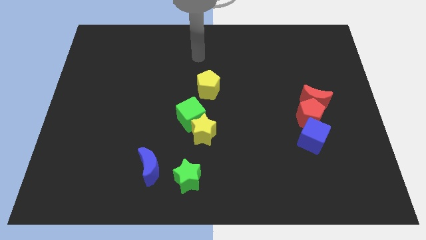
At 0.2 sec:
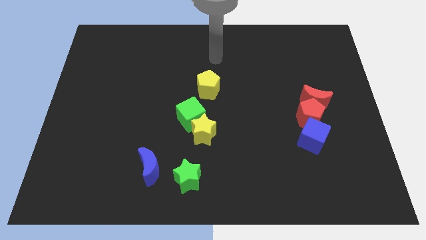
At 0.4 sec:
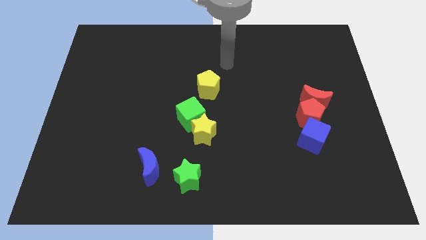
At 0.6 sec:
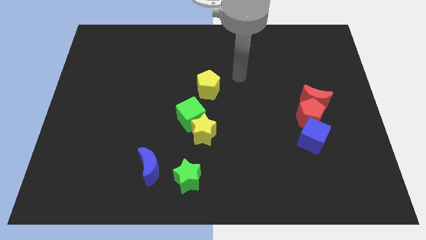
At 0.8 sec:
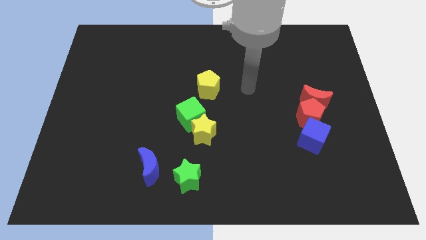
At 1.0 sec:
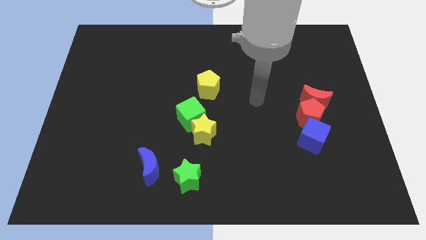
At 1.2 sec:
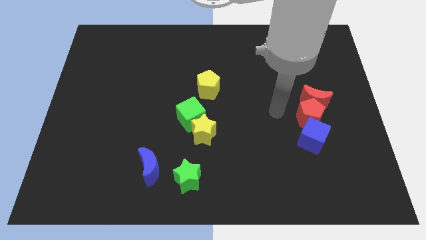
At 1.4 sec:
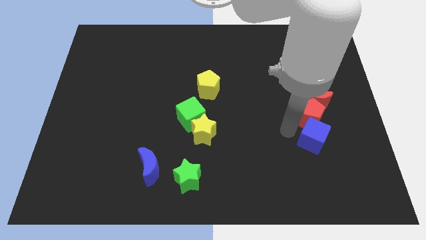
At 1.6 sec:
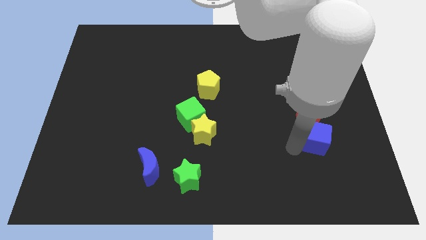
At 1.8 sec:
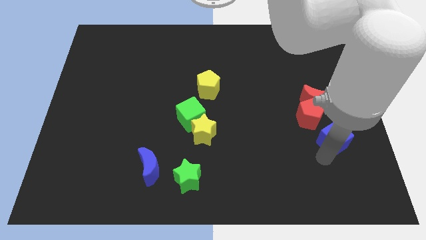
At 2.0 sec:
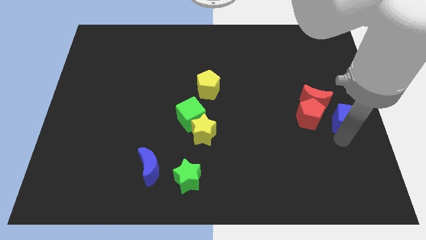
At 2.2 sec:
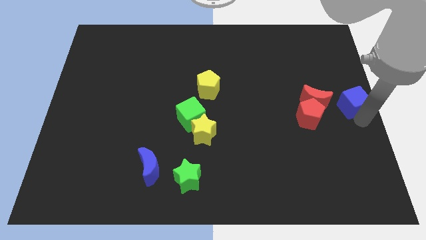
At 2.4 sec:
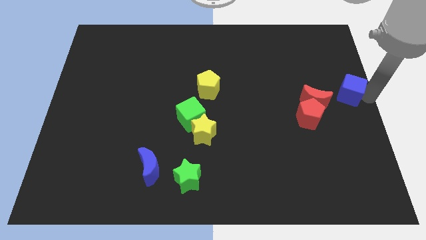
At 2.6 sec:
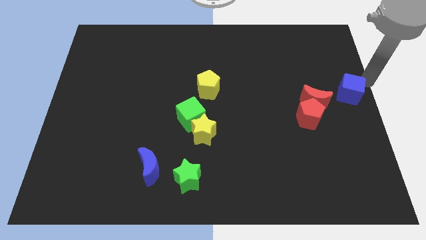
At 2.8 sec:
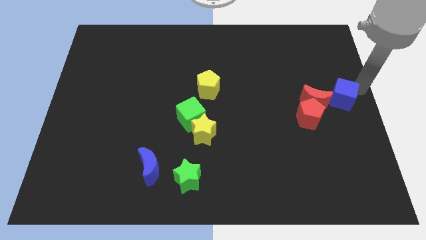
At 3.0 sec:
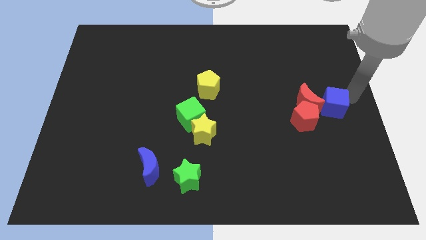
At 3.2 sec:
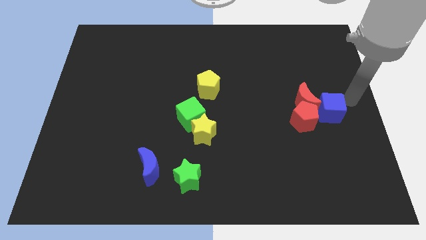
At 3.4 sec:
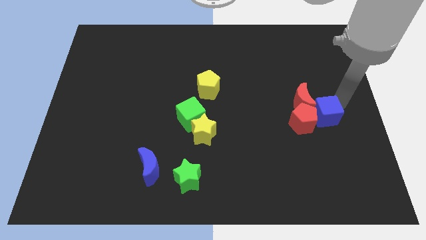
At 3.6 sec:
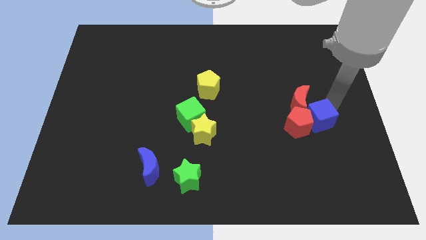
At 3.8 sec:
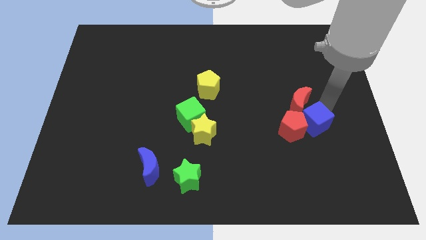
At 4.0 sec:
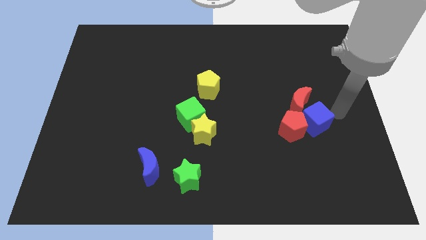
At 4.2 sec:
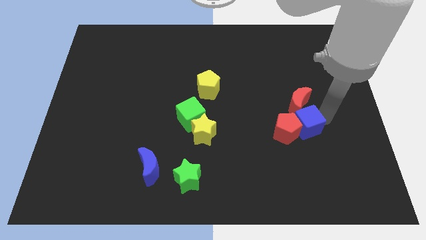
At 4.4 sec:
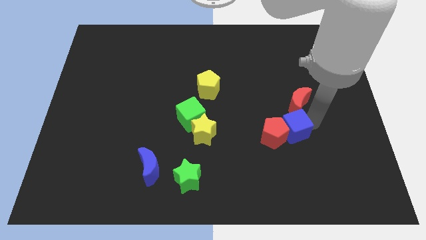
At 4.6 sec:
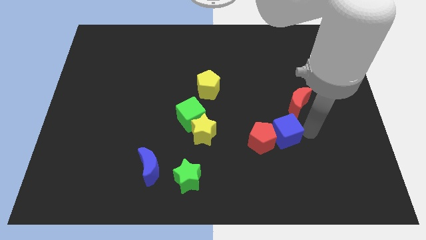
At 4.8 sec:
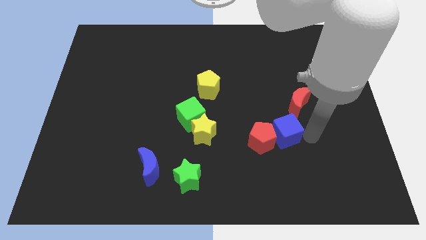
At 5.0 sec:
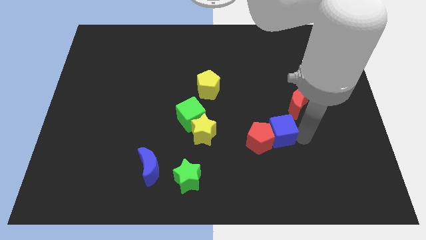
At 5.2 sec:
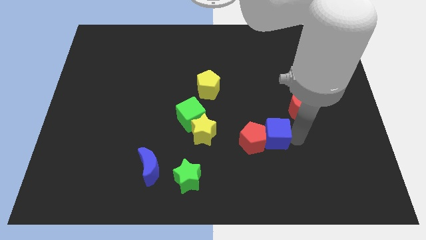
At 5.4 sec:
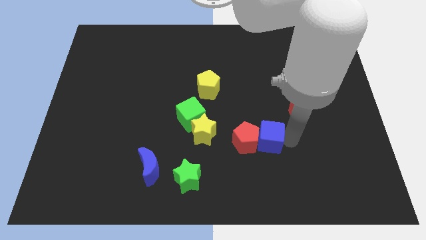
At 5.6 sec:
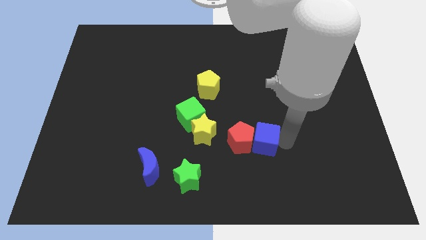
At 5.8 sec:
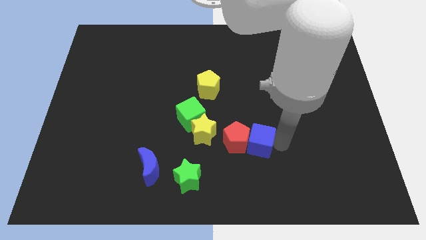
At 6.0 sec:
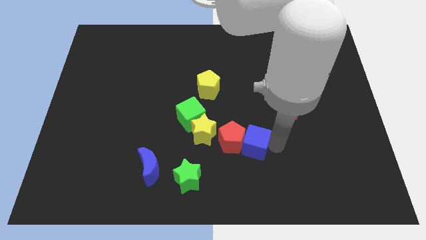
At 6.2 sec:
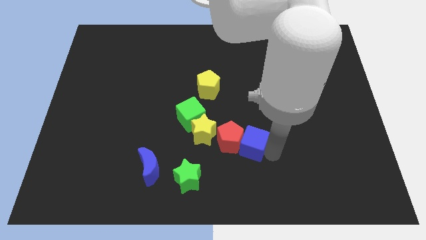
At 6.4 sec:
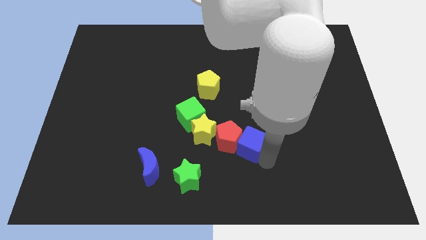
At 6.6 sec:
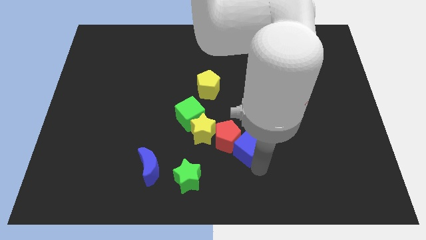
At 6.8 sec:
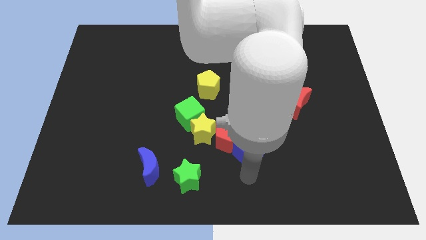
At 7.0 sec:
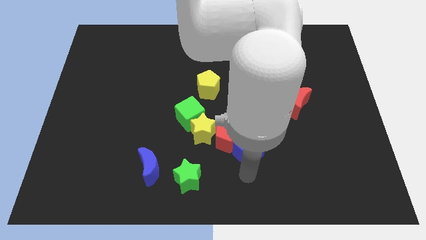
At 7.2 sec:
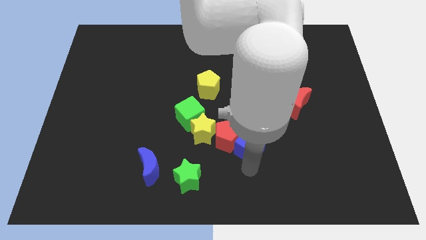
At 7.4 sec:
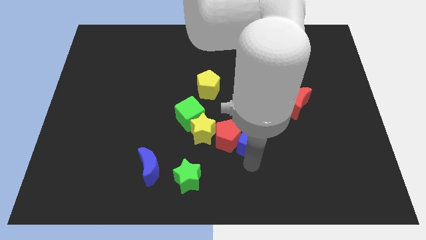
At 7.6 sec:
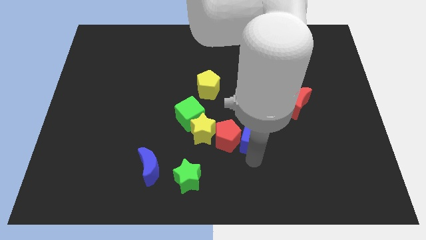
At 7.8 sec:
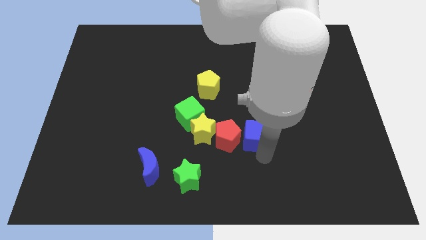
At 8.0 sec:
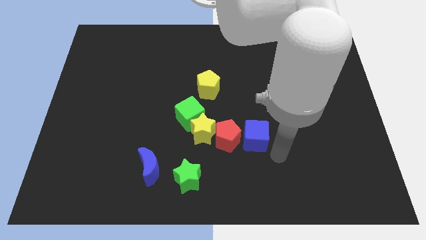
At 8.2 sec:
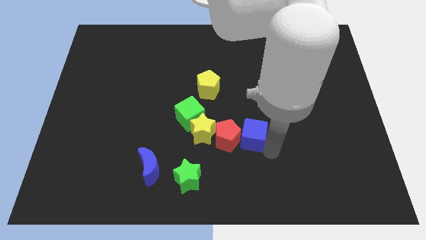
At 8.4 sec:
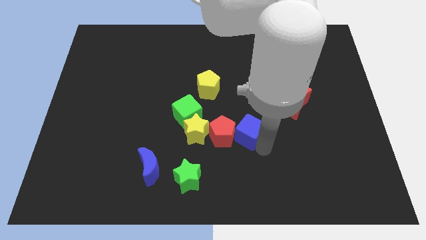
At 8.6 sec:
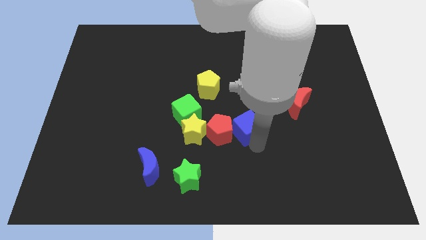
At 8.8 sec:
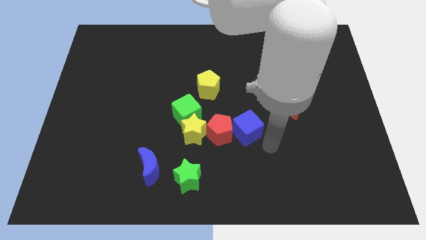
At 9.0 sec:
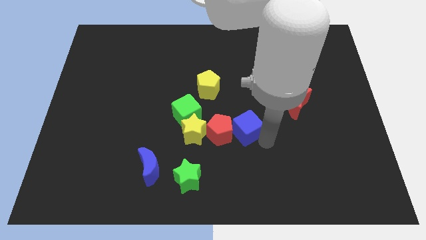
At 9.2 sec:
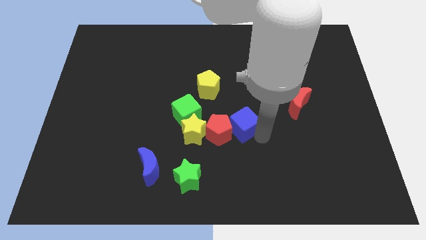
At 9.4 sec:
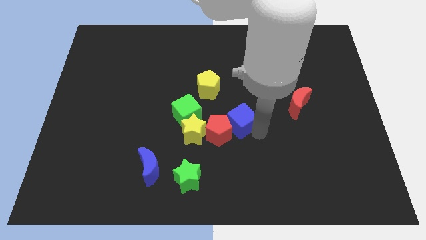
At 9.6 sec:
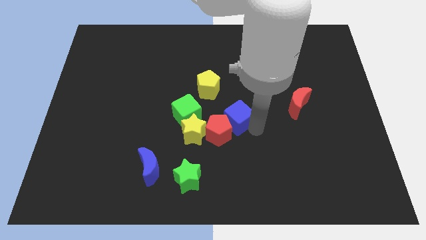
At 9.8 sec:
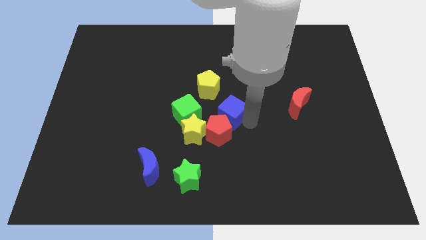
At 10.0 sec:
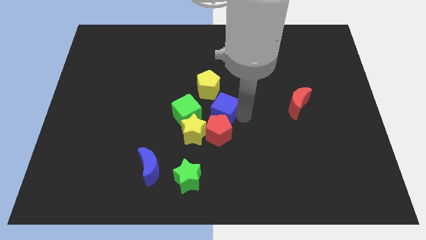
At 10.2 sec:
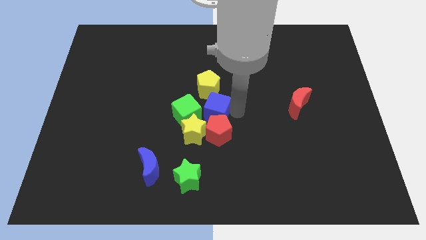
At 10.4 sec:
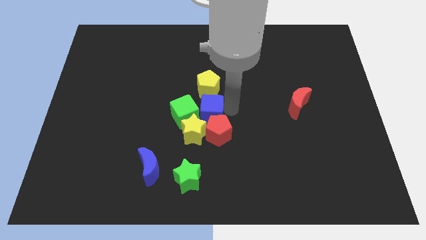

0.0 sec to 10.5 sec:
put the blue cube close to the green cube

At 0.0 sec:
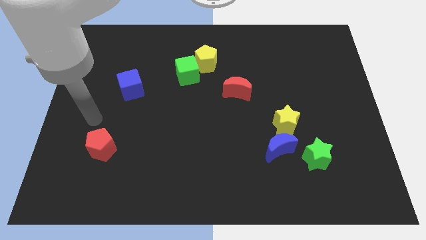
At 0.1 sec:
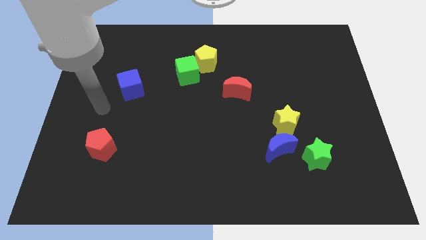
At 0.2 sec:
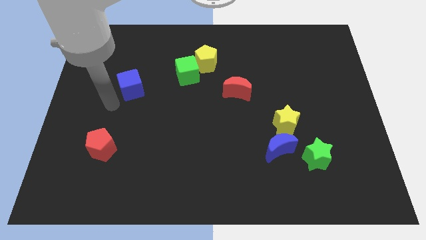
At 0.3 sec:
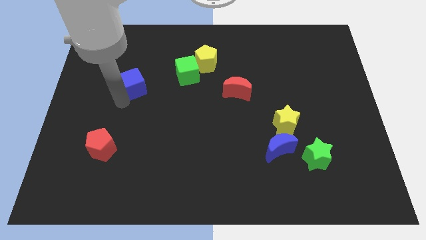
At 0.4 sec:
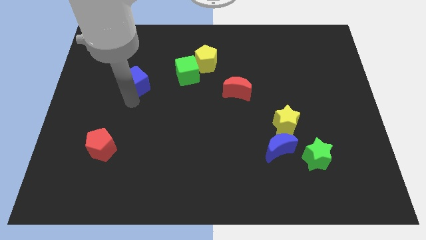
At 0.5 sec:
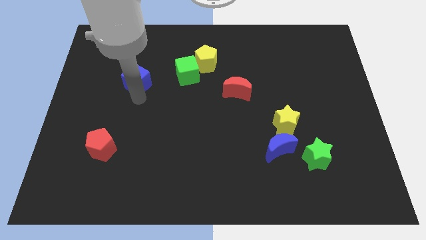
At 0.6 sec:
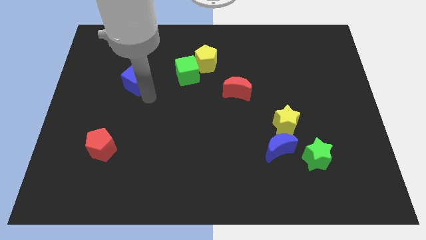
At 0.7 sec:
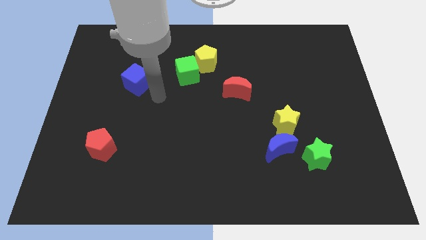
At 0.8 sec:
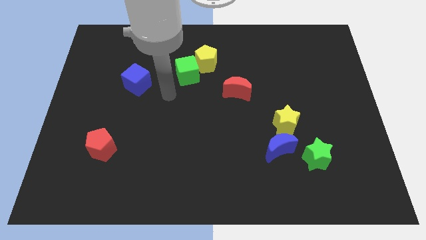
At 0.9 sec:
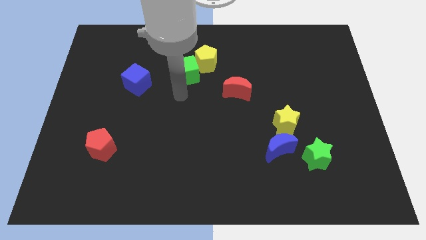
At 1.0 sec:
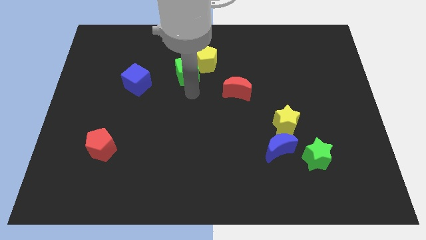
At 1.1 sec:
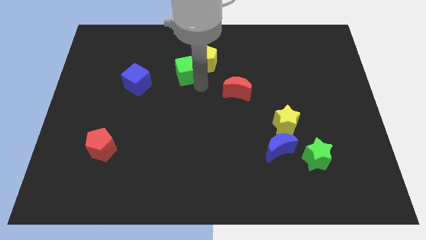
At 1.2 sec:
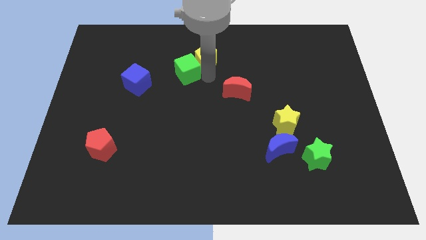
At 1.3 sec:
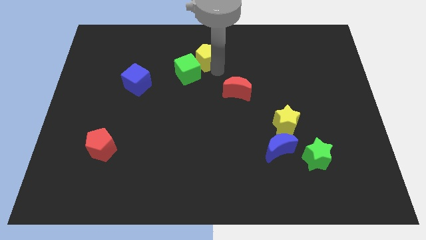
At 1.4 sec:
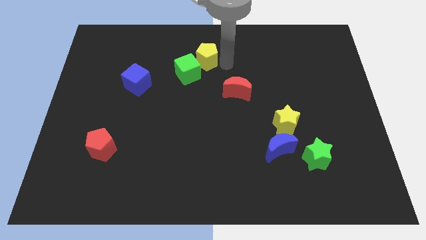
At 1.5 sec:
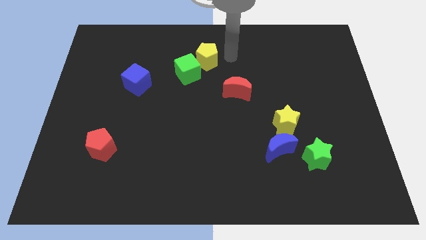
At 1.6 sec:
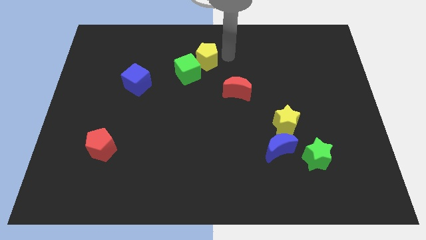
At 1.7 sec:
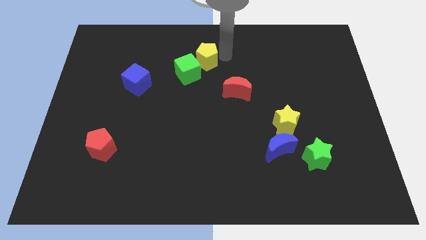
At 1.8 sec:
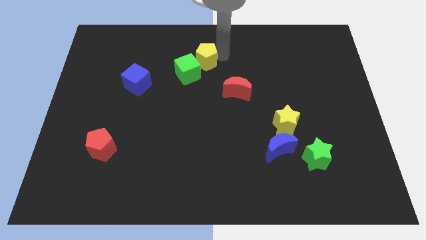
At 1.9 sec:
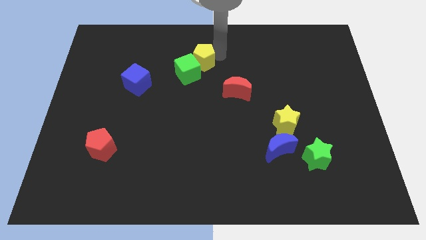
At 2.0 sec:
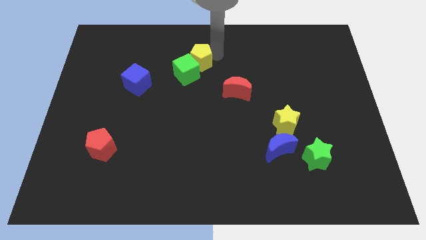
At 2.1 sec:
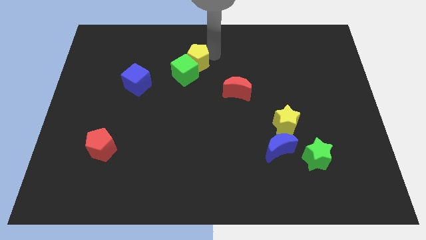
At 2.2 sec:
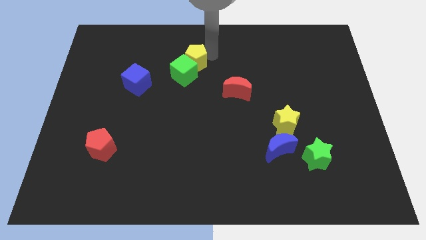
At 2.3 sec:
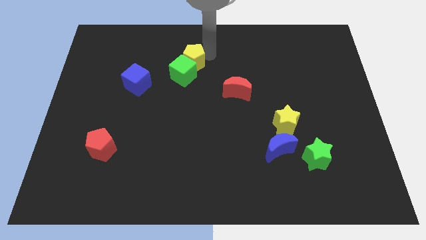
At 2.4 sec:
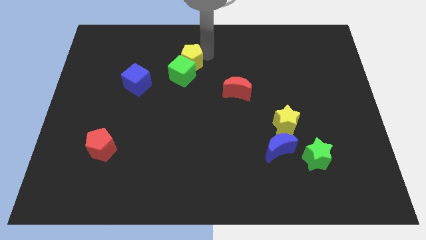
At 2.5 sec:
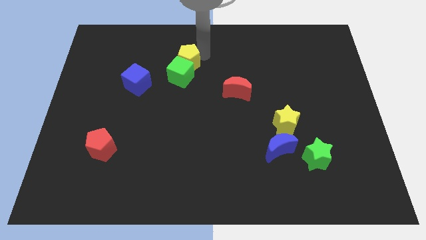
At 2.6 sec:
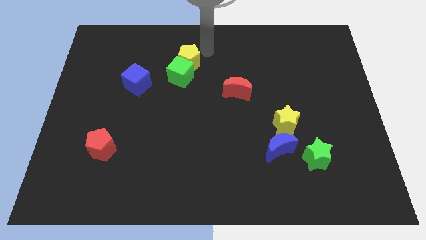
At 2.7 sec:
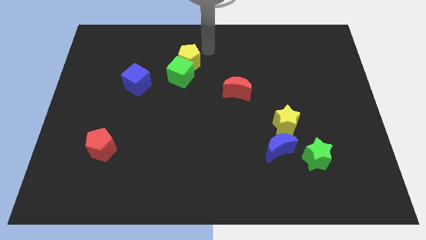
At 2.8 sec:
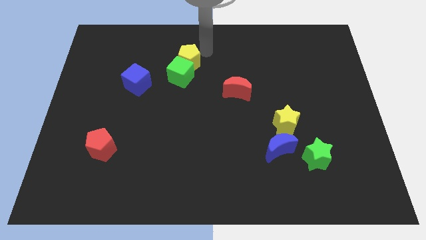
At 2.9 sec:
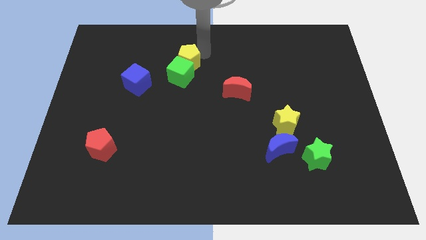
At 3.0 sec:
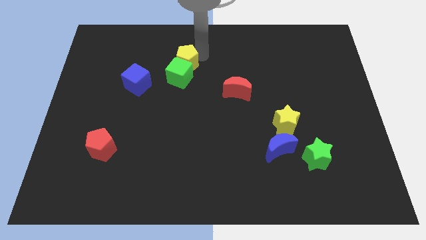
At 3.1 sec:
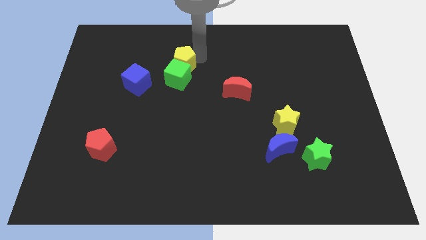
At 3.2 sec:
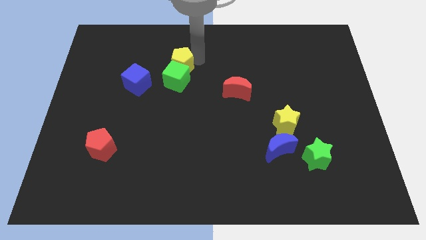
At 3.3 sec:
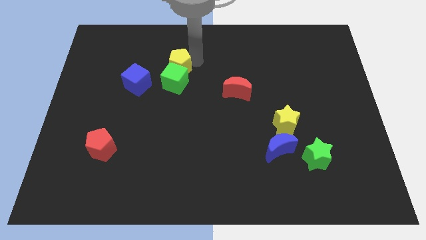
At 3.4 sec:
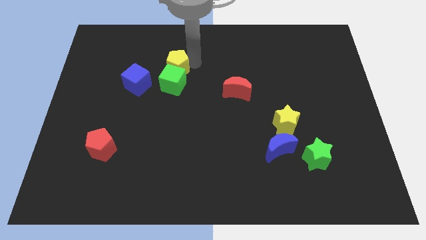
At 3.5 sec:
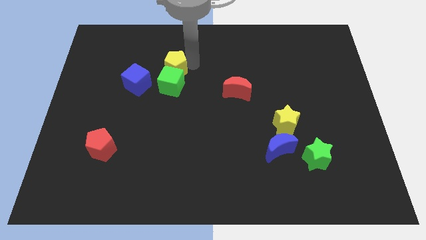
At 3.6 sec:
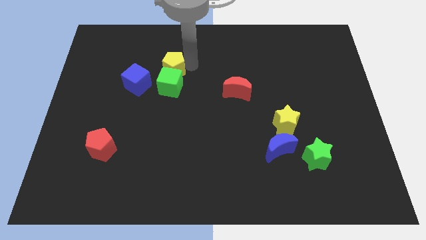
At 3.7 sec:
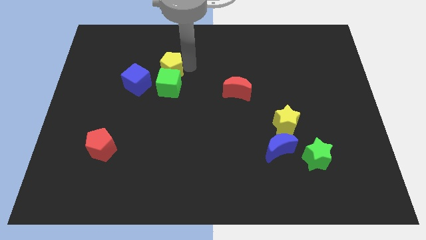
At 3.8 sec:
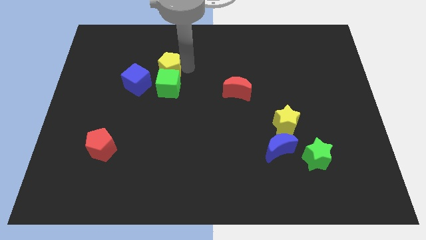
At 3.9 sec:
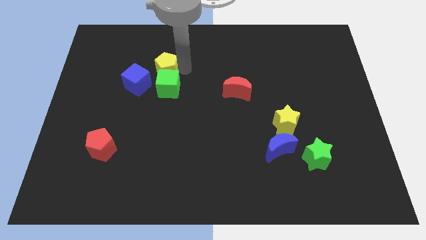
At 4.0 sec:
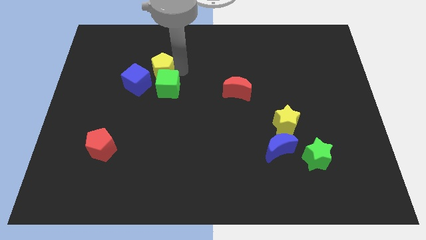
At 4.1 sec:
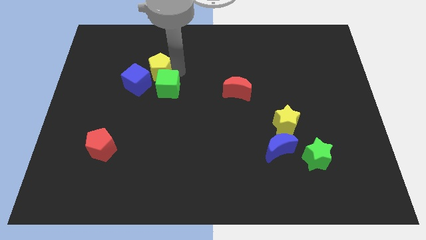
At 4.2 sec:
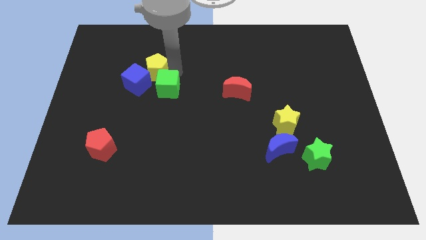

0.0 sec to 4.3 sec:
push the yellow pentagon to the blue cube
